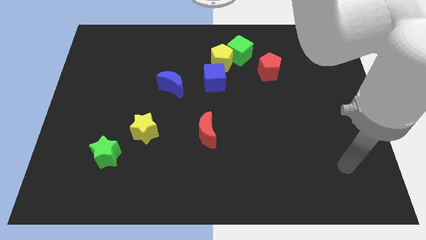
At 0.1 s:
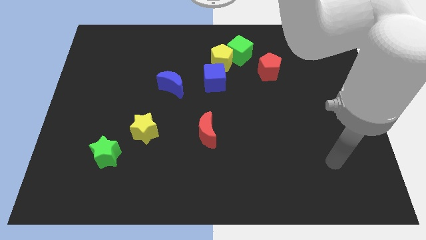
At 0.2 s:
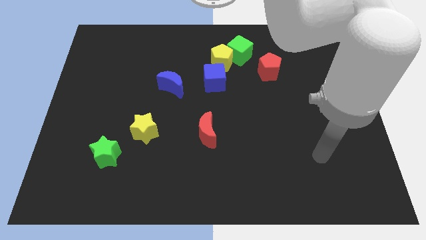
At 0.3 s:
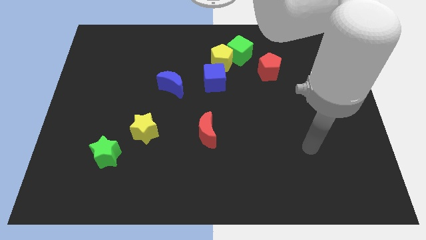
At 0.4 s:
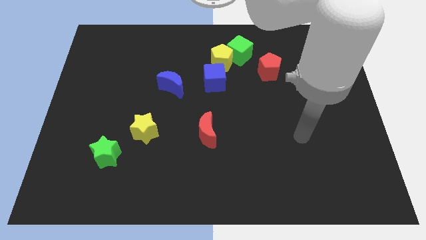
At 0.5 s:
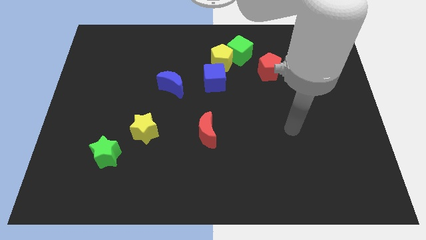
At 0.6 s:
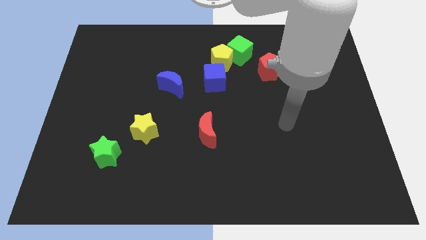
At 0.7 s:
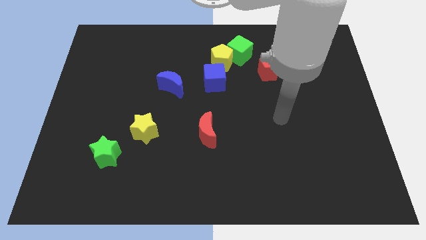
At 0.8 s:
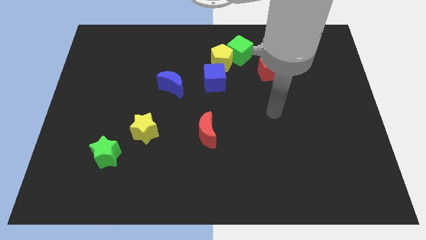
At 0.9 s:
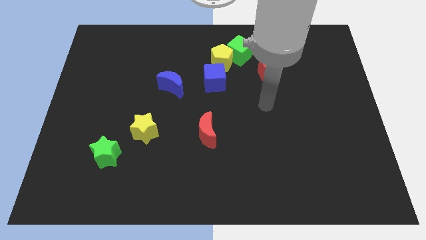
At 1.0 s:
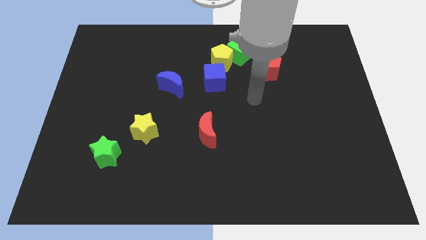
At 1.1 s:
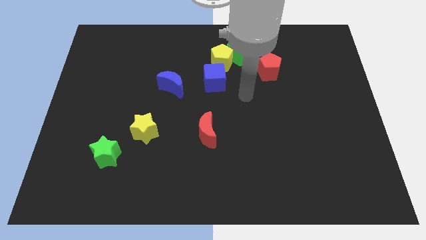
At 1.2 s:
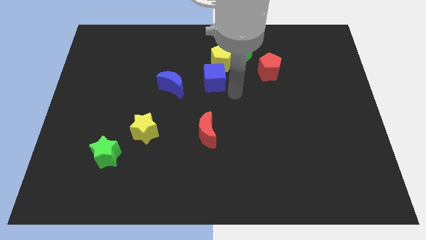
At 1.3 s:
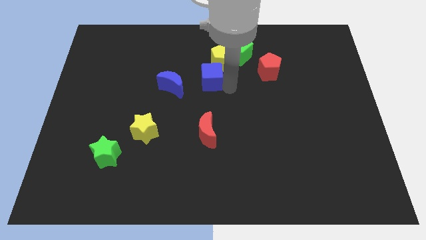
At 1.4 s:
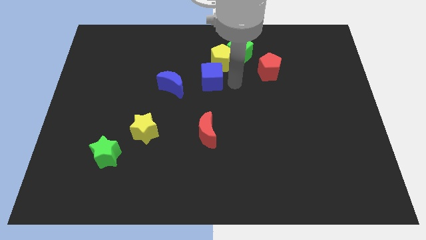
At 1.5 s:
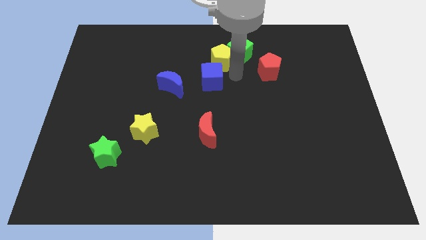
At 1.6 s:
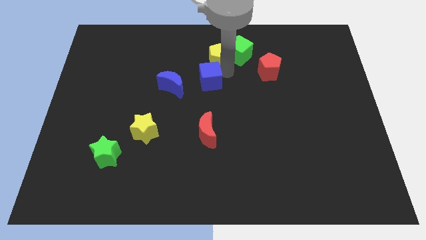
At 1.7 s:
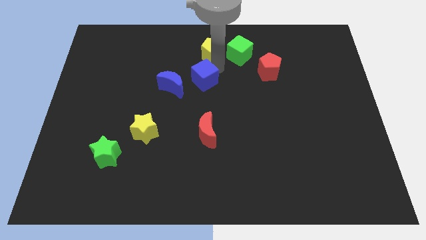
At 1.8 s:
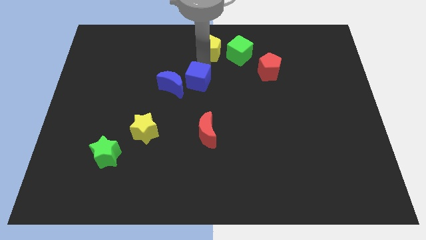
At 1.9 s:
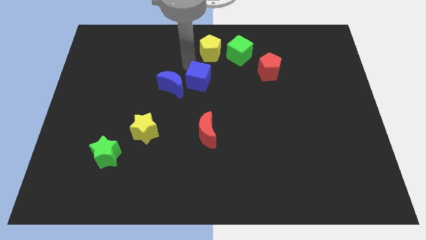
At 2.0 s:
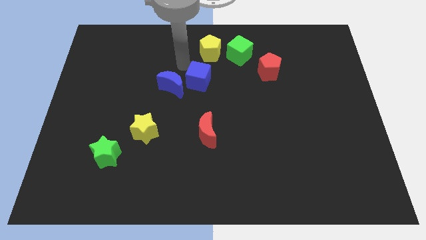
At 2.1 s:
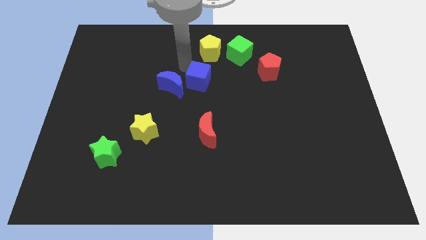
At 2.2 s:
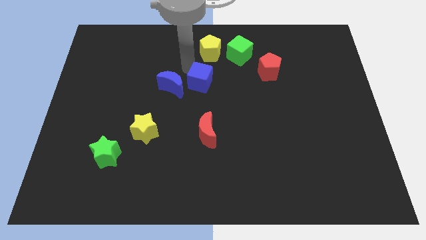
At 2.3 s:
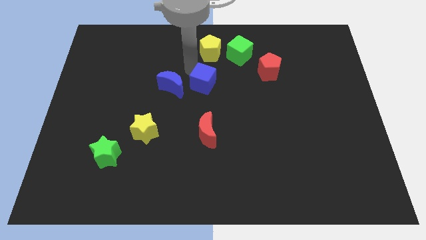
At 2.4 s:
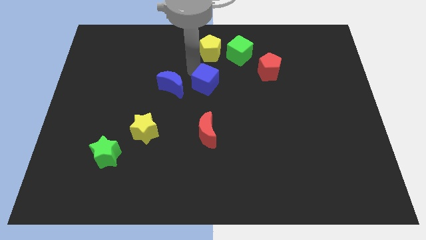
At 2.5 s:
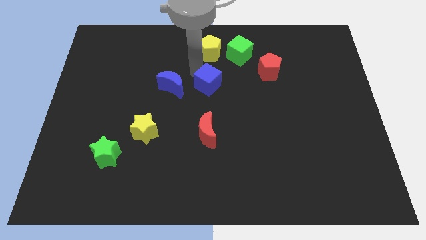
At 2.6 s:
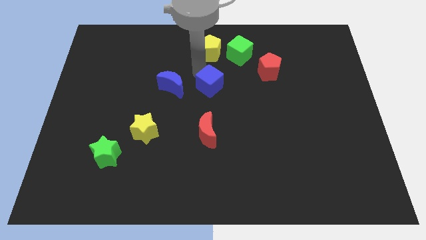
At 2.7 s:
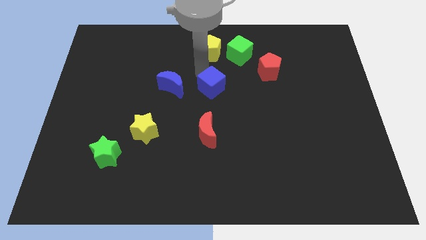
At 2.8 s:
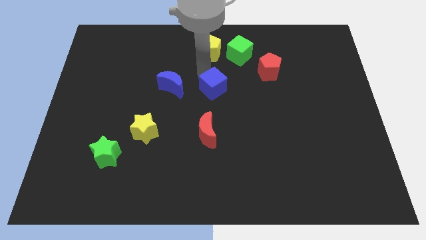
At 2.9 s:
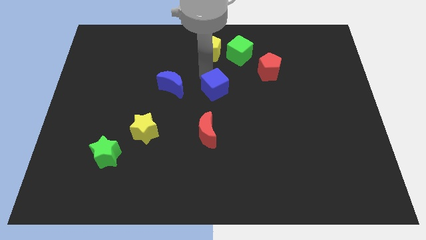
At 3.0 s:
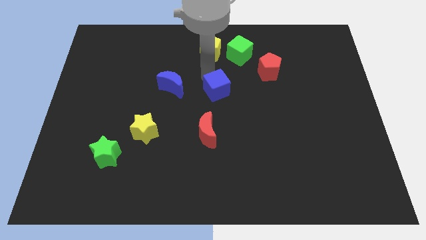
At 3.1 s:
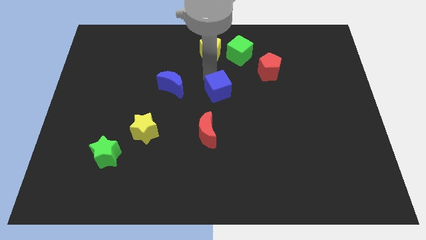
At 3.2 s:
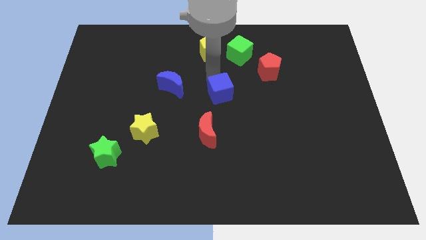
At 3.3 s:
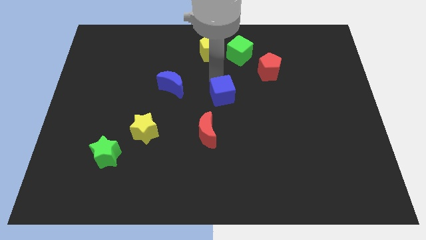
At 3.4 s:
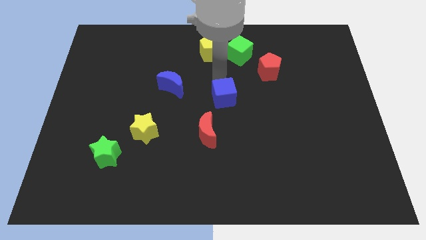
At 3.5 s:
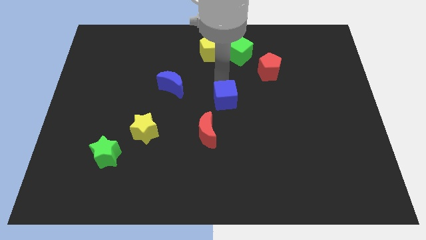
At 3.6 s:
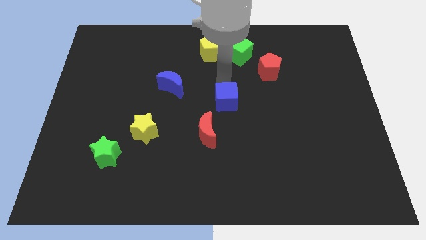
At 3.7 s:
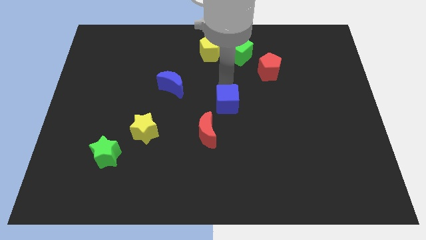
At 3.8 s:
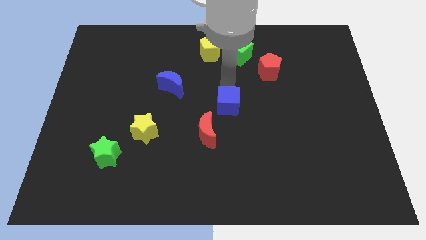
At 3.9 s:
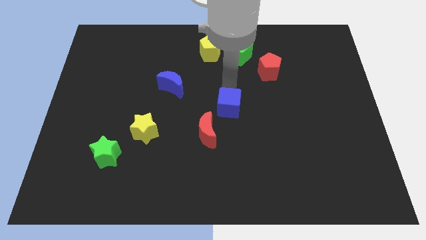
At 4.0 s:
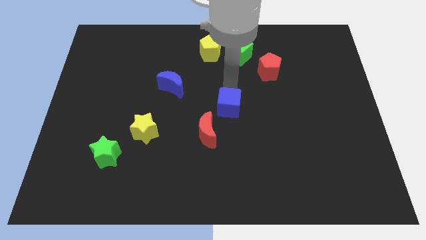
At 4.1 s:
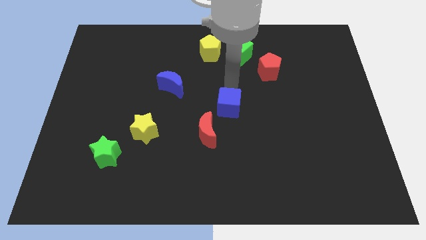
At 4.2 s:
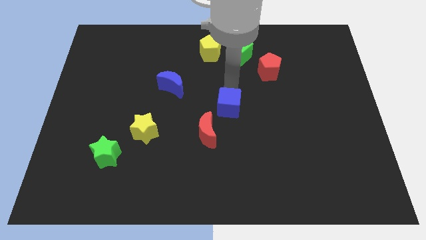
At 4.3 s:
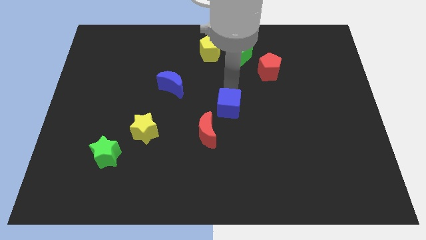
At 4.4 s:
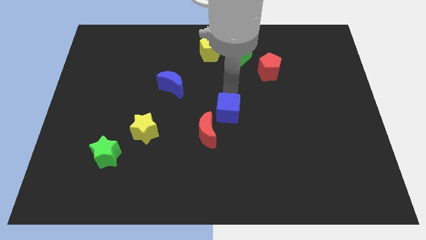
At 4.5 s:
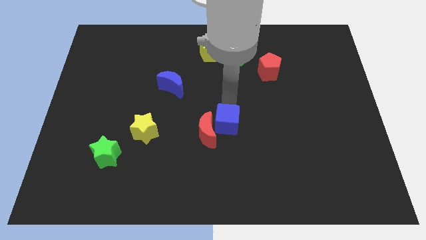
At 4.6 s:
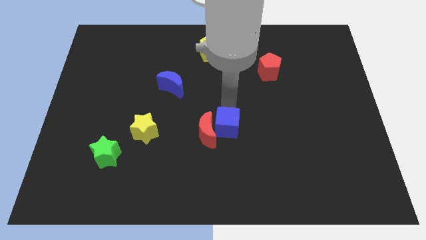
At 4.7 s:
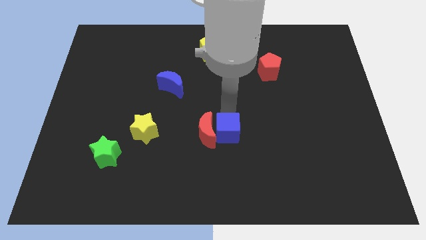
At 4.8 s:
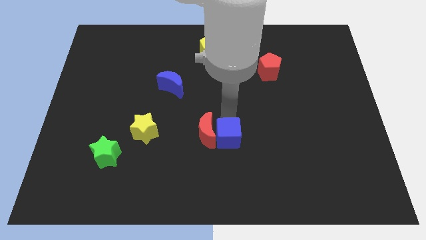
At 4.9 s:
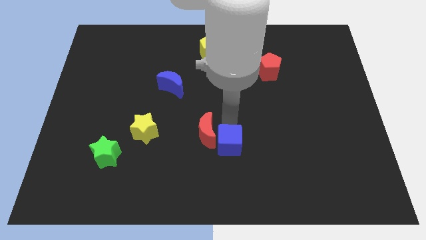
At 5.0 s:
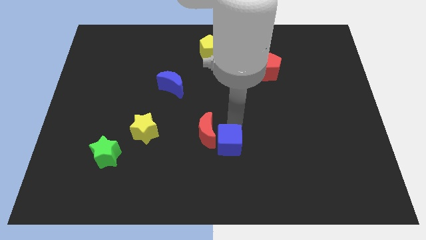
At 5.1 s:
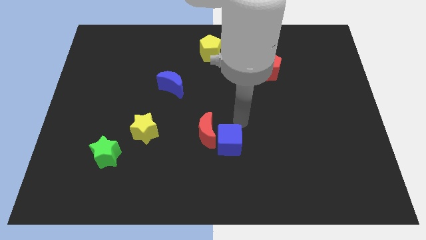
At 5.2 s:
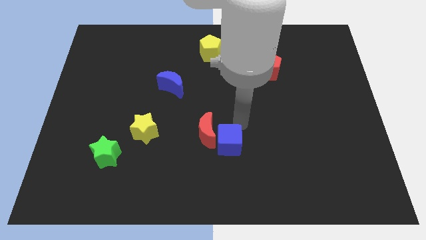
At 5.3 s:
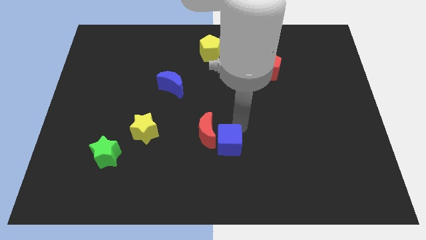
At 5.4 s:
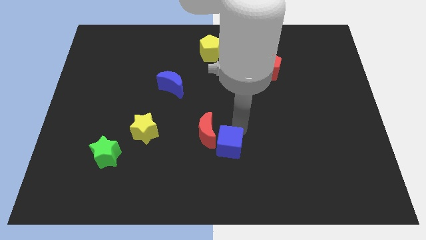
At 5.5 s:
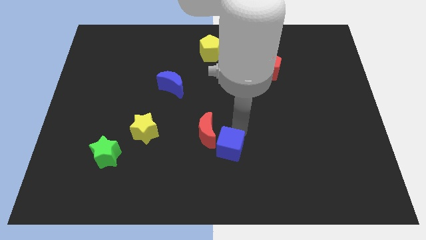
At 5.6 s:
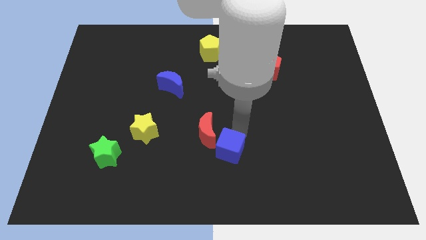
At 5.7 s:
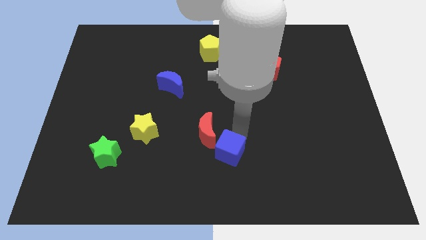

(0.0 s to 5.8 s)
slide the blue cube below the red moon

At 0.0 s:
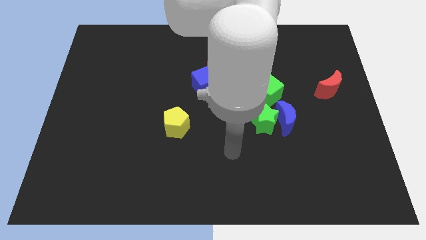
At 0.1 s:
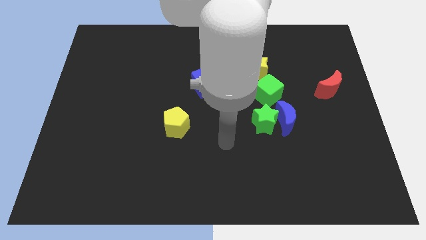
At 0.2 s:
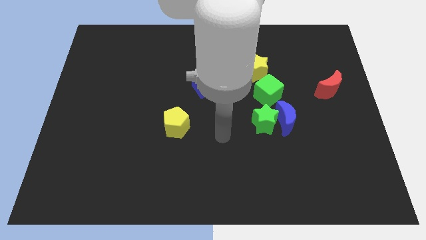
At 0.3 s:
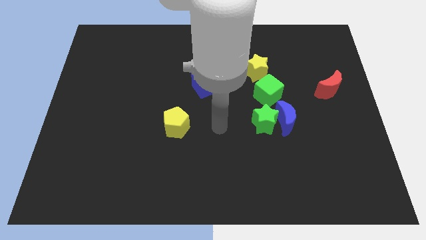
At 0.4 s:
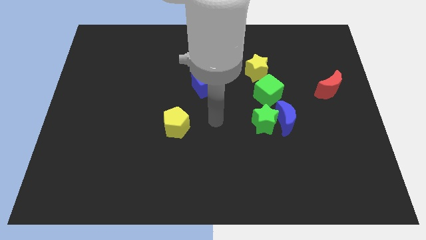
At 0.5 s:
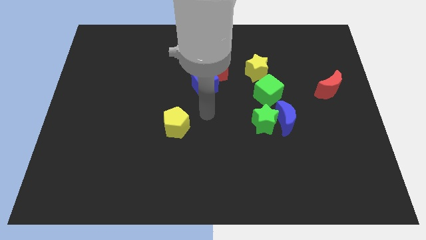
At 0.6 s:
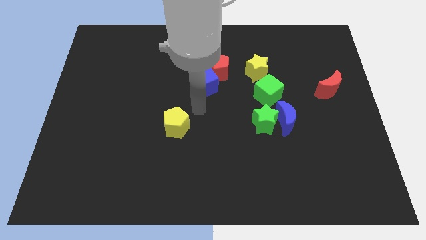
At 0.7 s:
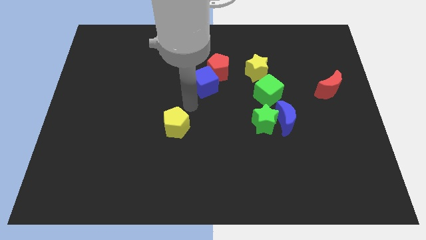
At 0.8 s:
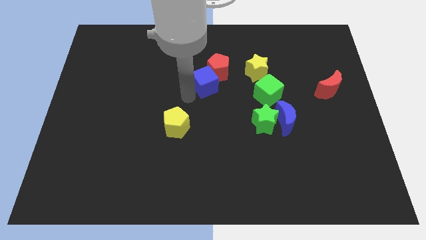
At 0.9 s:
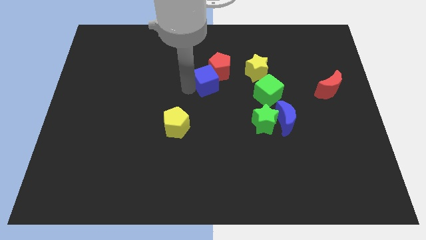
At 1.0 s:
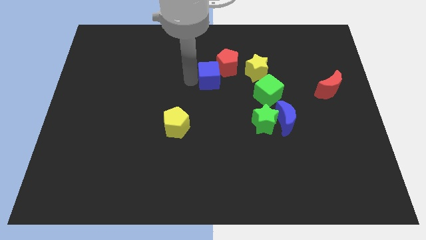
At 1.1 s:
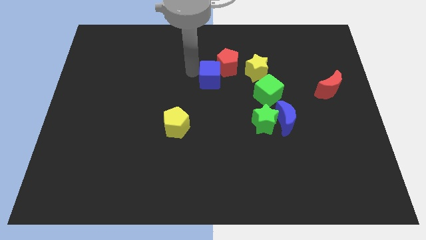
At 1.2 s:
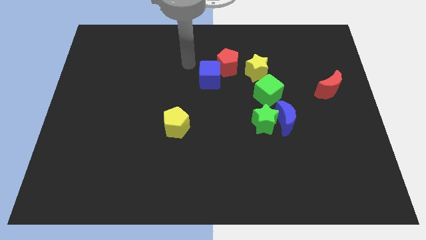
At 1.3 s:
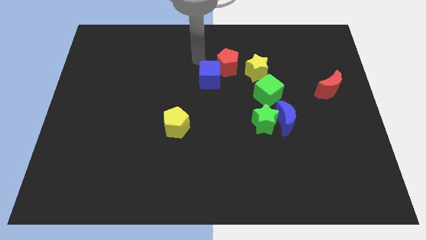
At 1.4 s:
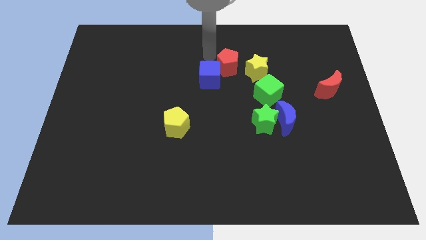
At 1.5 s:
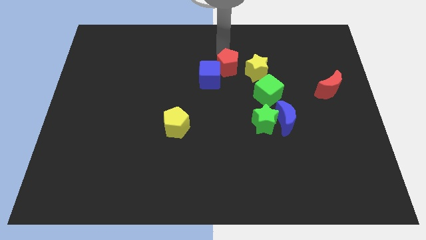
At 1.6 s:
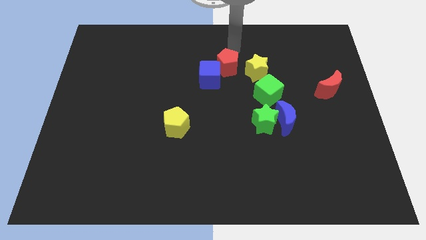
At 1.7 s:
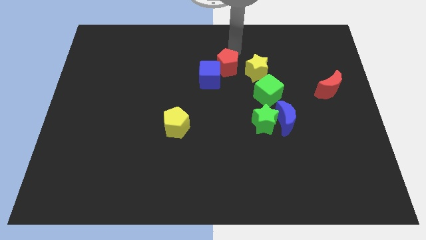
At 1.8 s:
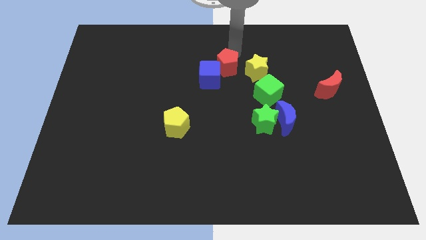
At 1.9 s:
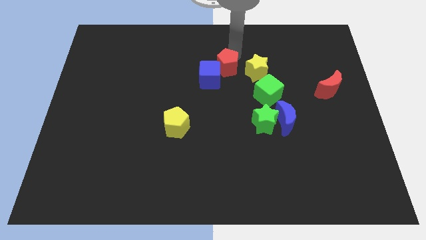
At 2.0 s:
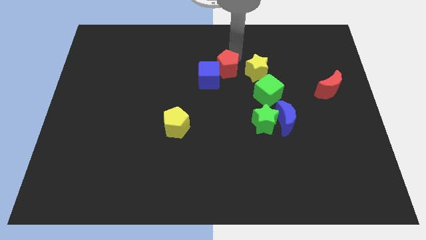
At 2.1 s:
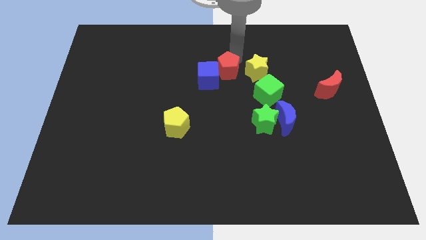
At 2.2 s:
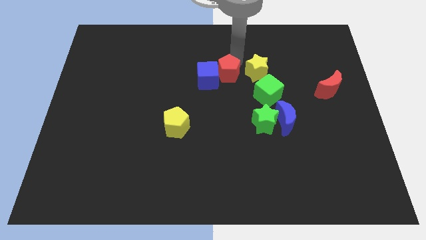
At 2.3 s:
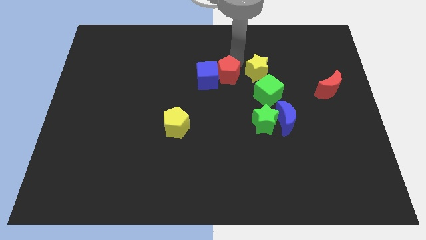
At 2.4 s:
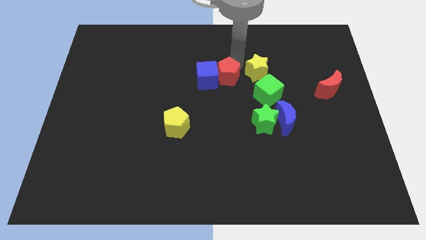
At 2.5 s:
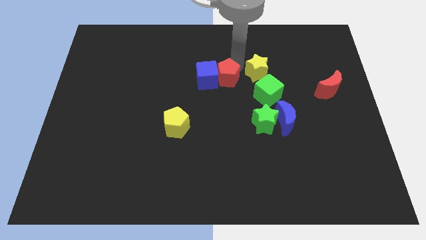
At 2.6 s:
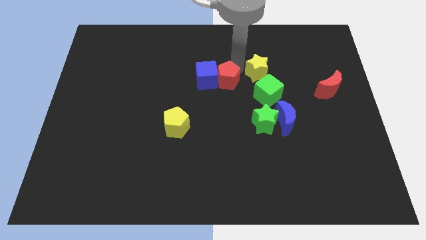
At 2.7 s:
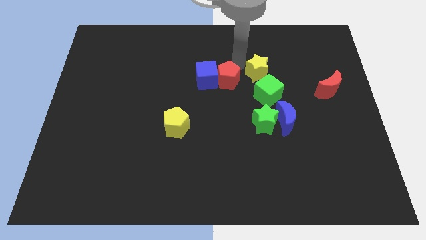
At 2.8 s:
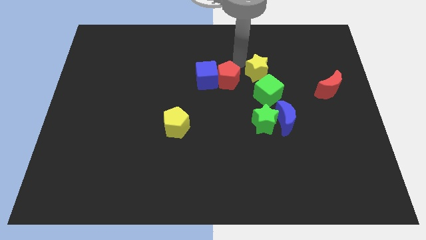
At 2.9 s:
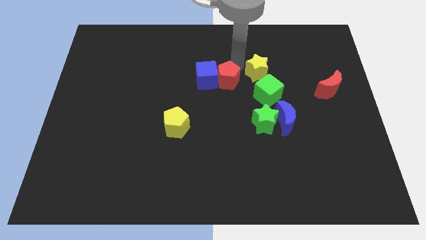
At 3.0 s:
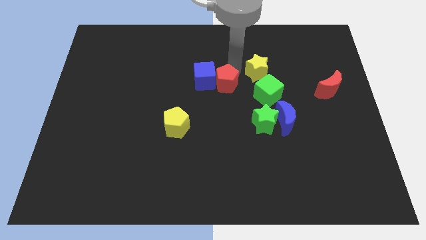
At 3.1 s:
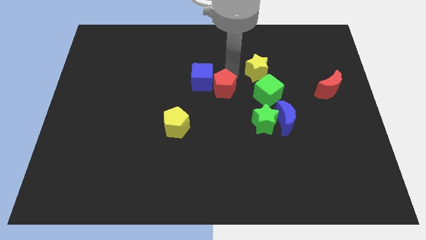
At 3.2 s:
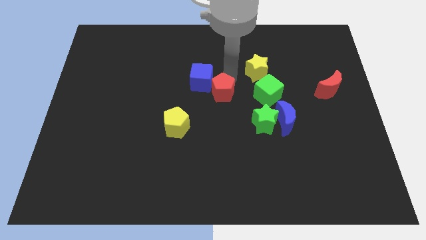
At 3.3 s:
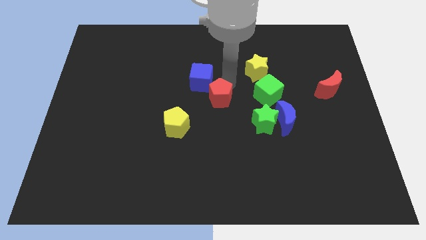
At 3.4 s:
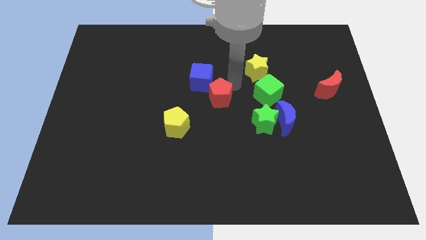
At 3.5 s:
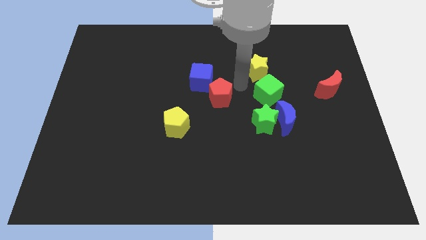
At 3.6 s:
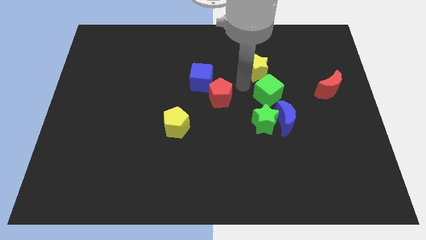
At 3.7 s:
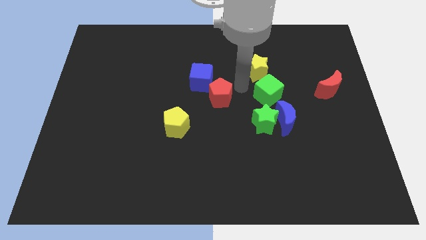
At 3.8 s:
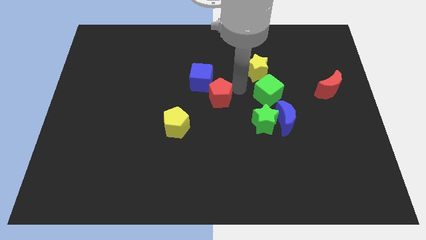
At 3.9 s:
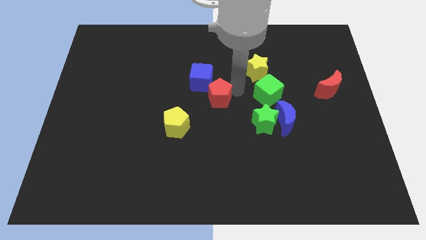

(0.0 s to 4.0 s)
move the red pentagon diagonally up and to the right of the yellow pentagon
